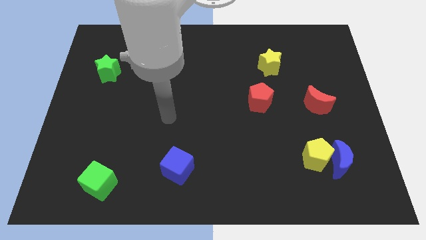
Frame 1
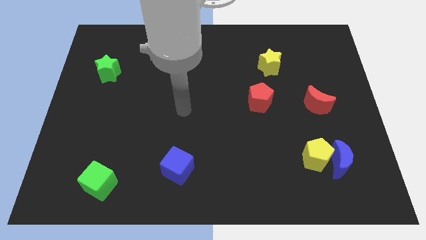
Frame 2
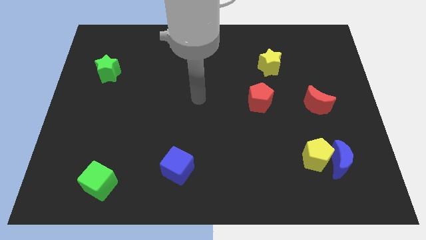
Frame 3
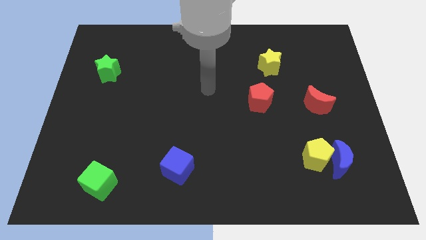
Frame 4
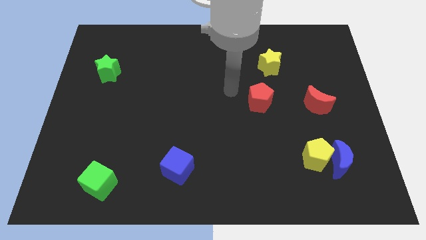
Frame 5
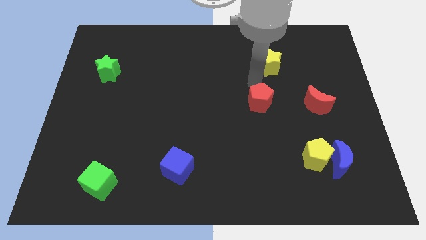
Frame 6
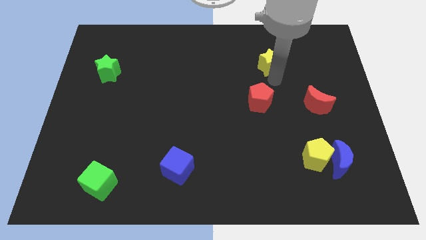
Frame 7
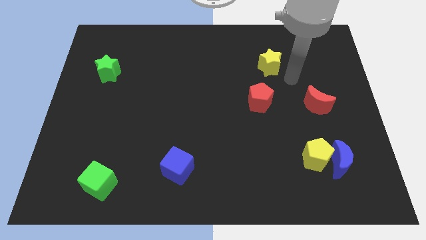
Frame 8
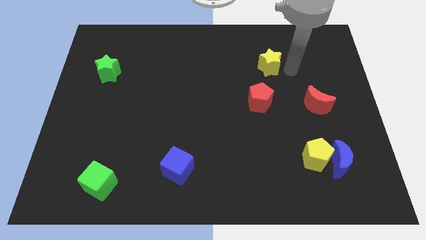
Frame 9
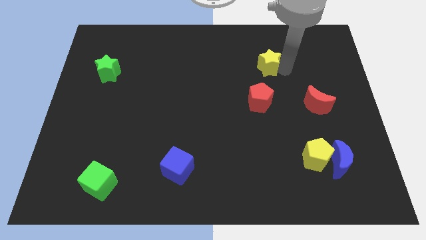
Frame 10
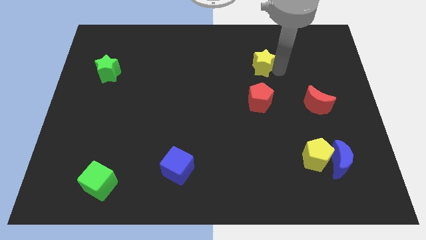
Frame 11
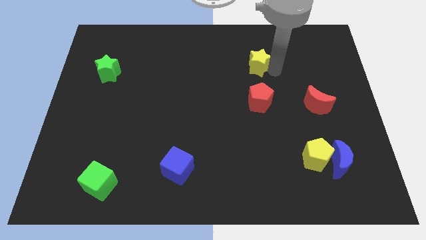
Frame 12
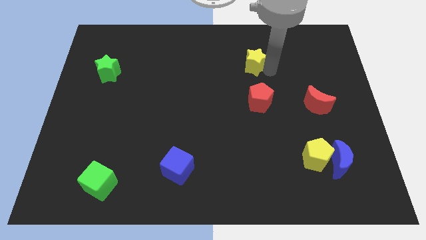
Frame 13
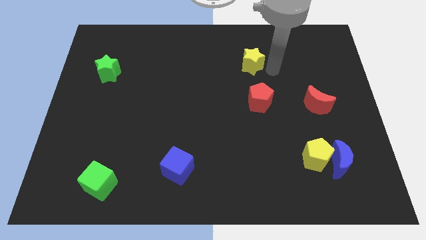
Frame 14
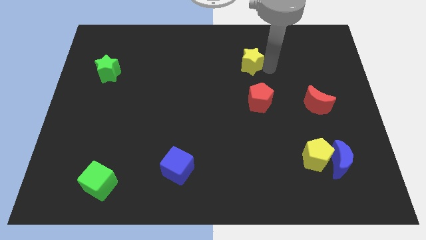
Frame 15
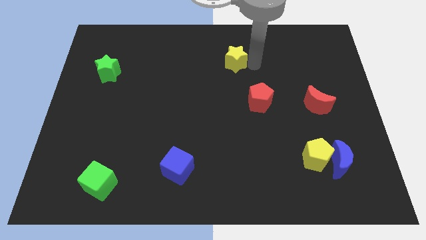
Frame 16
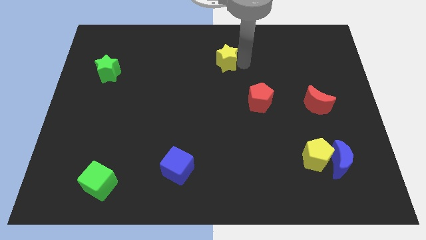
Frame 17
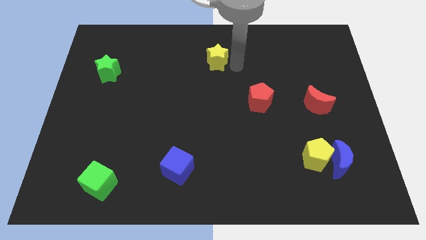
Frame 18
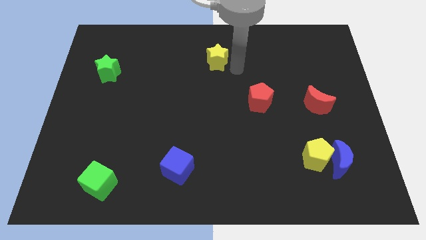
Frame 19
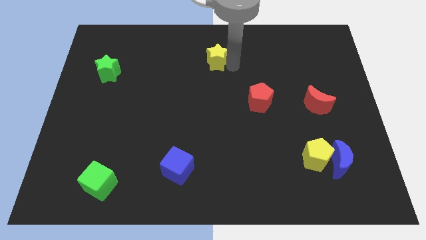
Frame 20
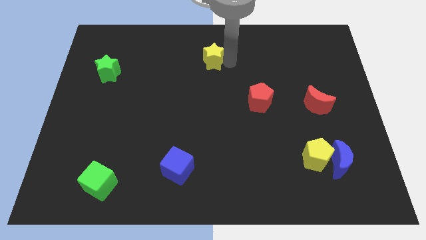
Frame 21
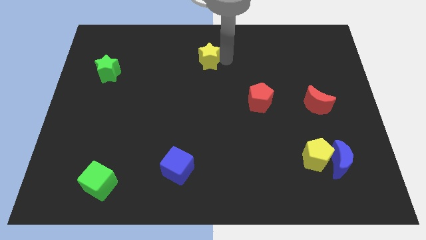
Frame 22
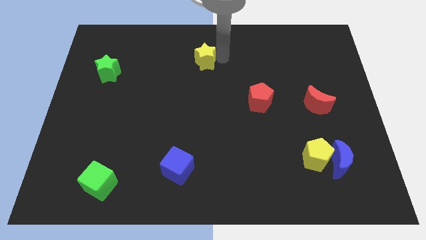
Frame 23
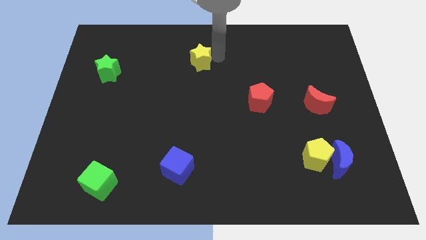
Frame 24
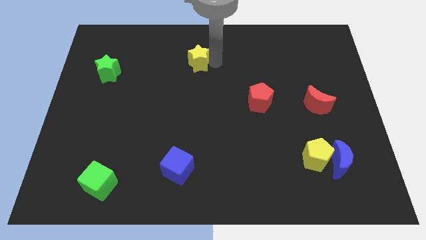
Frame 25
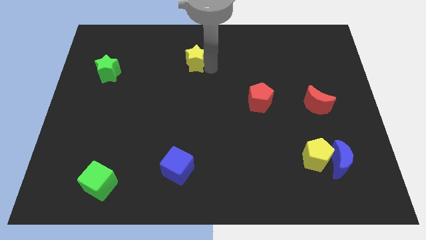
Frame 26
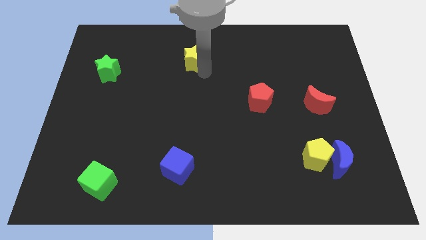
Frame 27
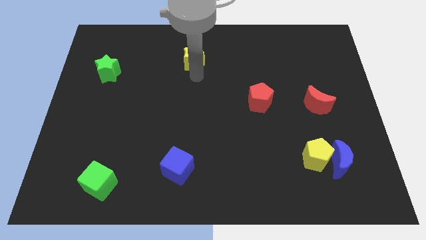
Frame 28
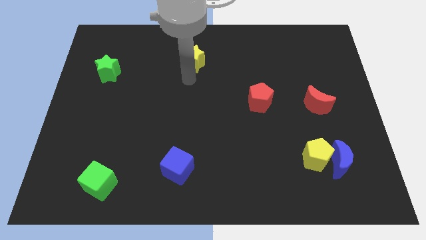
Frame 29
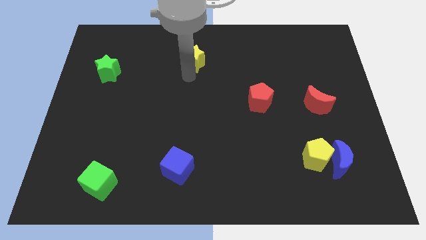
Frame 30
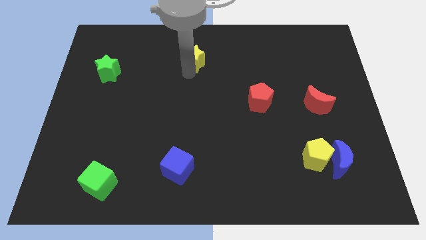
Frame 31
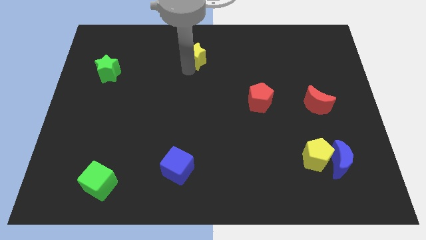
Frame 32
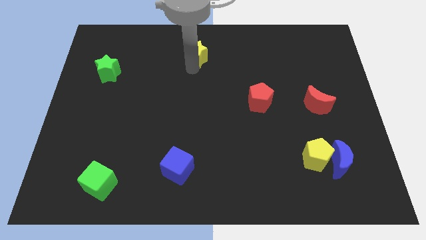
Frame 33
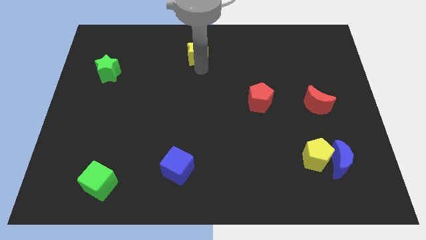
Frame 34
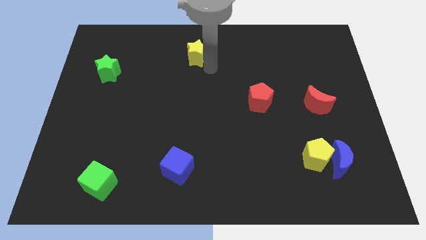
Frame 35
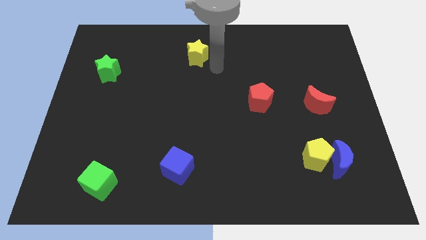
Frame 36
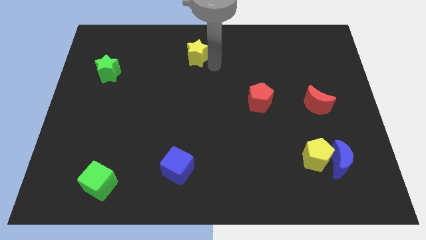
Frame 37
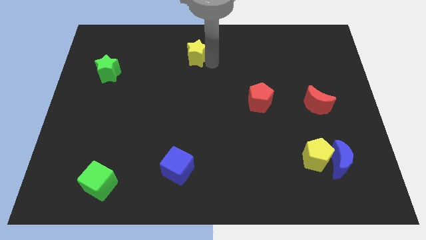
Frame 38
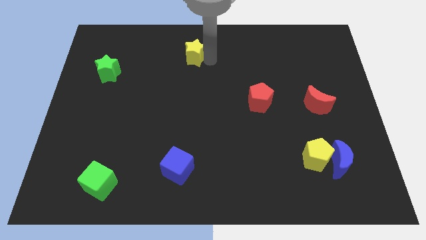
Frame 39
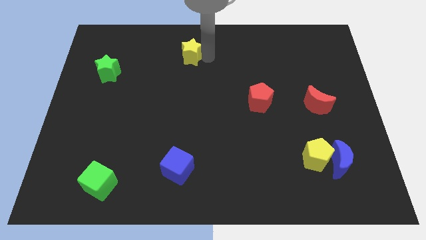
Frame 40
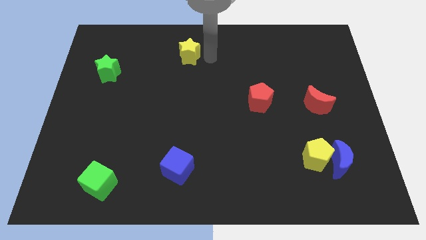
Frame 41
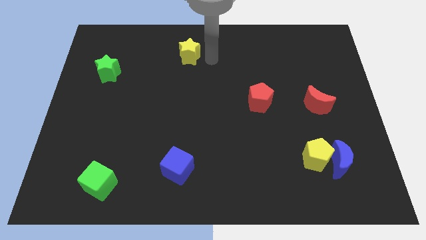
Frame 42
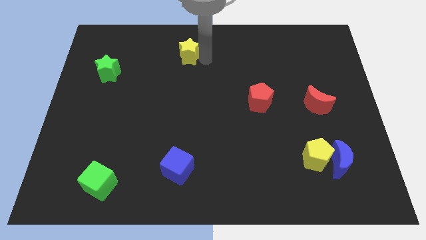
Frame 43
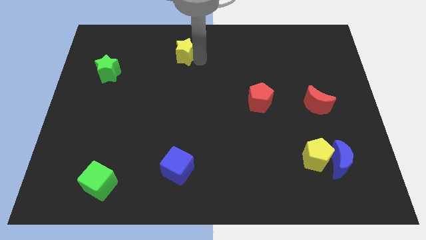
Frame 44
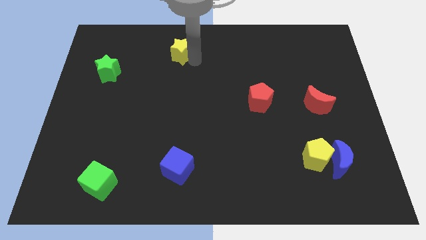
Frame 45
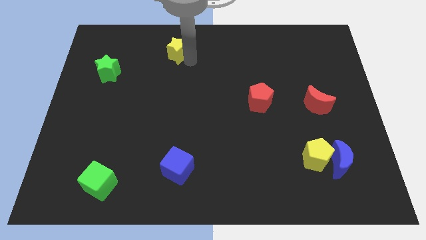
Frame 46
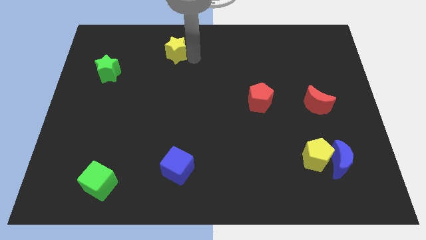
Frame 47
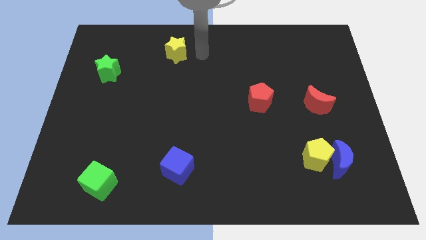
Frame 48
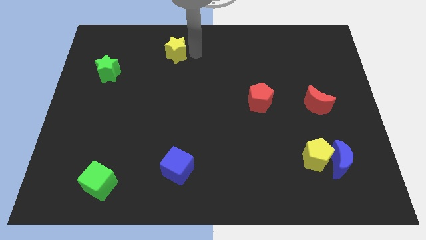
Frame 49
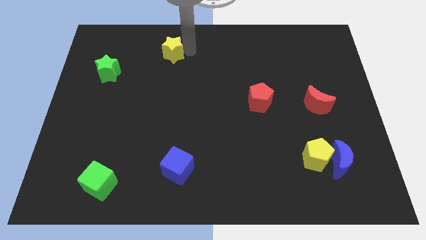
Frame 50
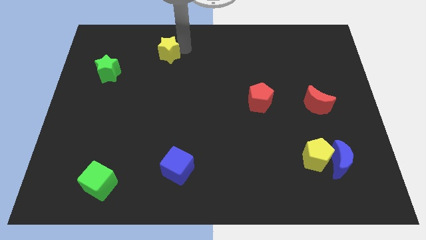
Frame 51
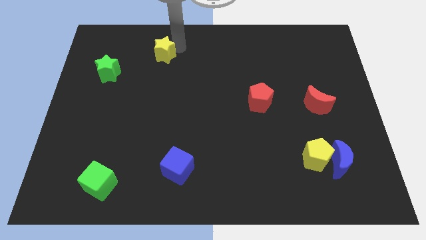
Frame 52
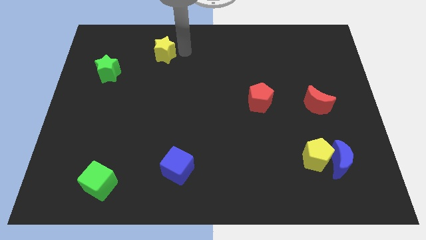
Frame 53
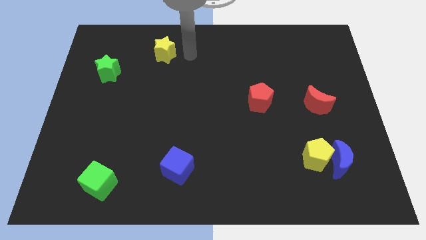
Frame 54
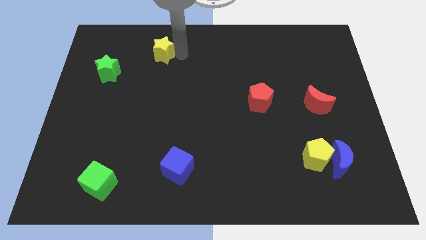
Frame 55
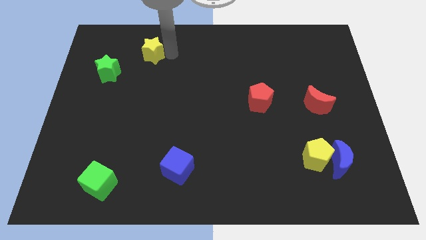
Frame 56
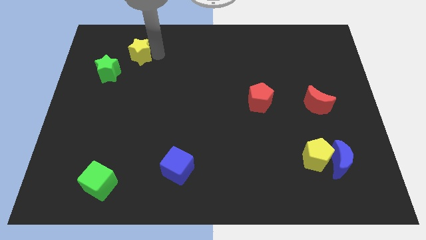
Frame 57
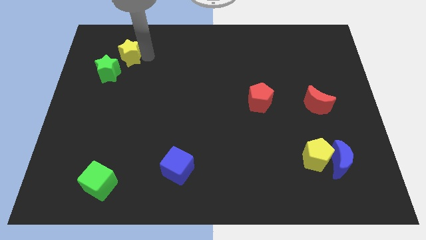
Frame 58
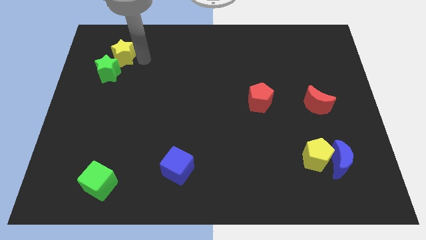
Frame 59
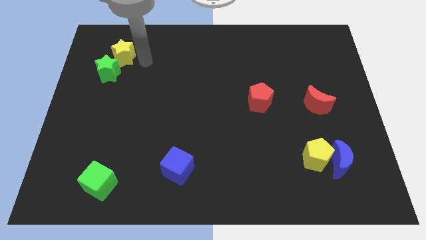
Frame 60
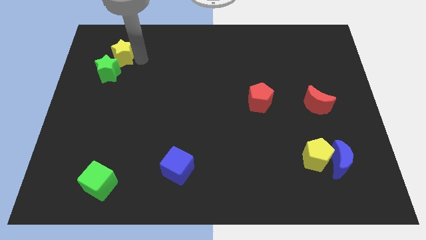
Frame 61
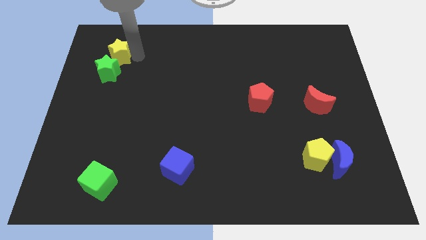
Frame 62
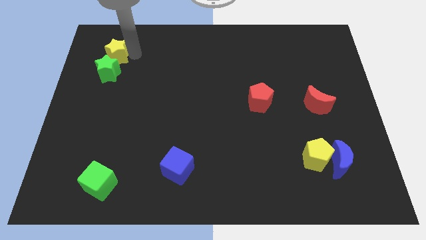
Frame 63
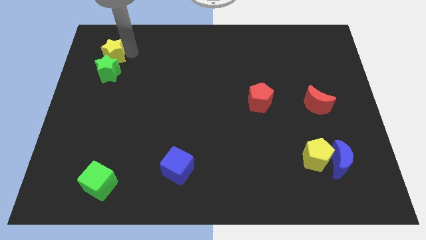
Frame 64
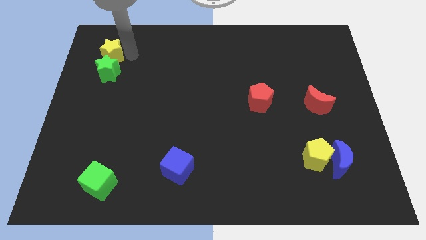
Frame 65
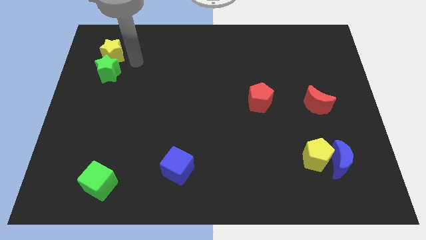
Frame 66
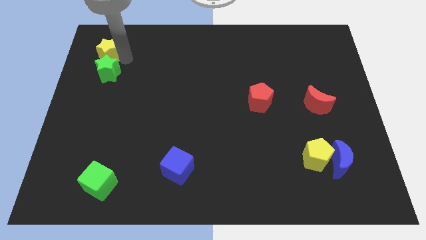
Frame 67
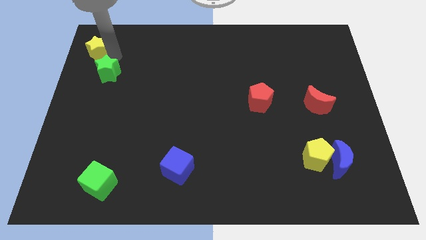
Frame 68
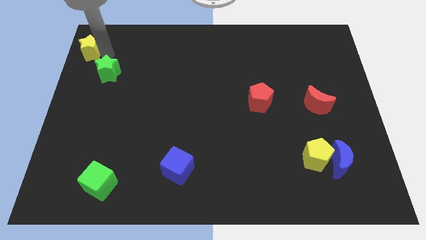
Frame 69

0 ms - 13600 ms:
put the yellow star to the top left of the board
